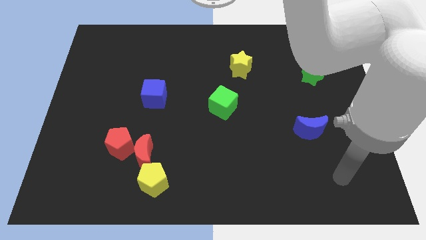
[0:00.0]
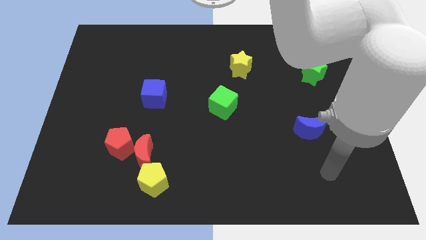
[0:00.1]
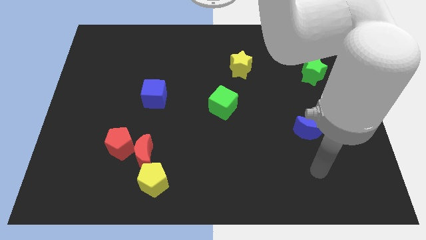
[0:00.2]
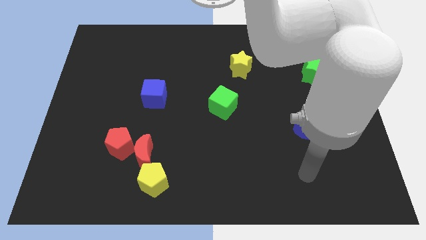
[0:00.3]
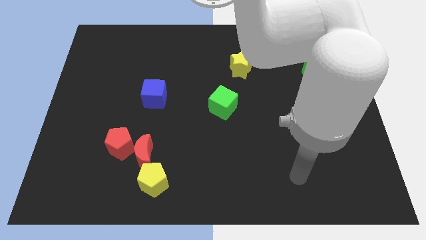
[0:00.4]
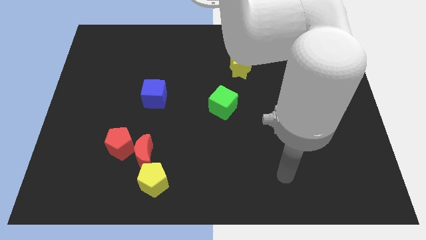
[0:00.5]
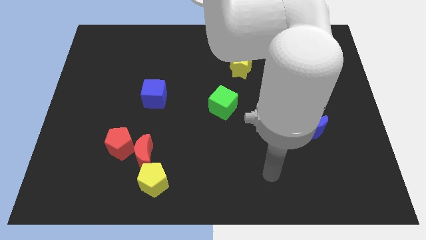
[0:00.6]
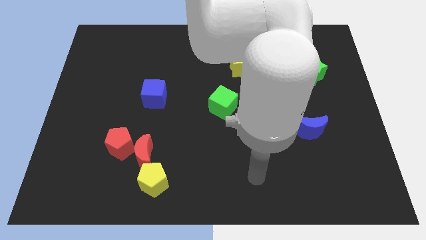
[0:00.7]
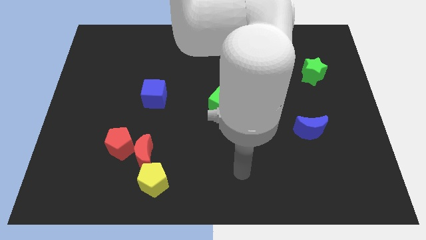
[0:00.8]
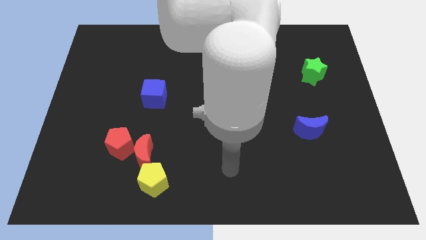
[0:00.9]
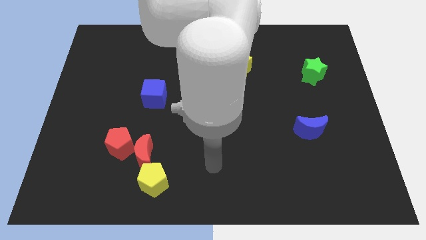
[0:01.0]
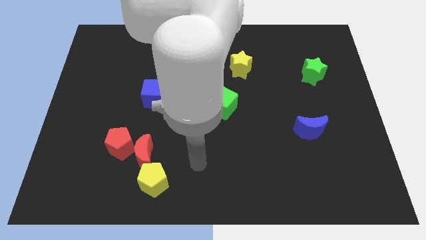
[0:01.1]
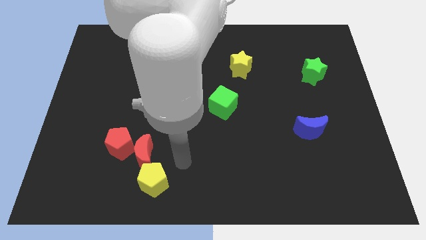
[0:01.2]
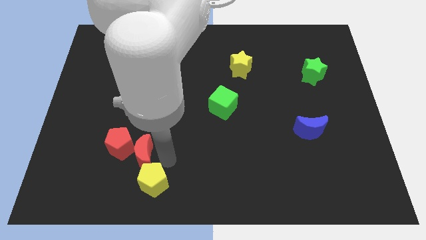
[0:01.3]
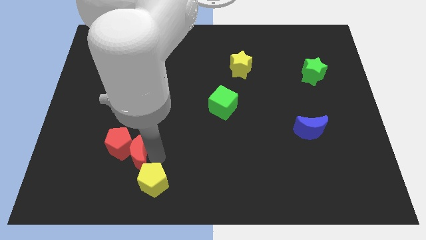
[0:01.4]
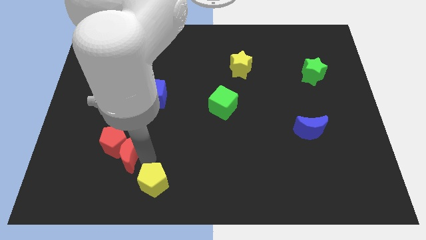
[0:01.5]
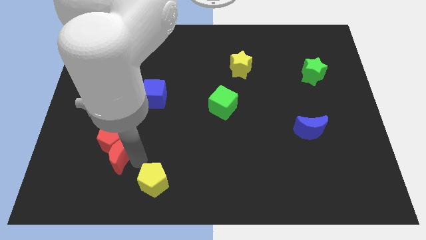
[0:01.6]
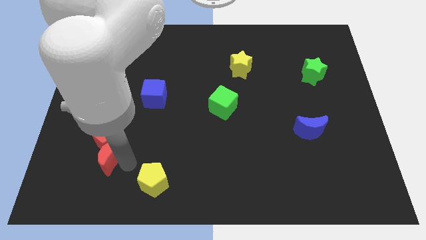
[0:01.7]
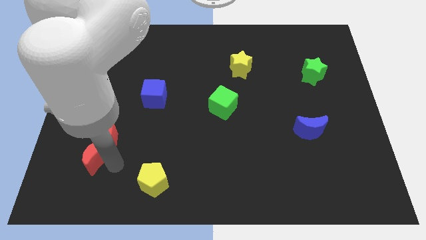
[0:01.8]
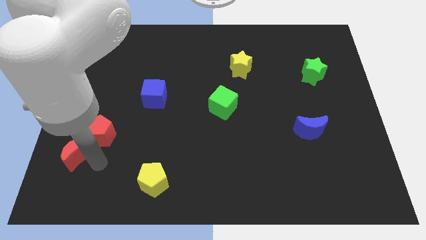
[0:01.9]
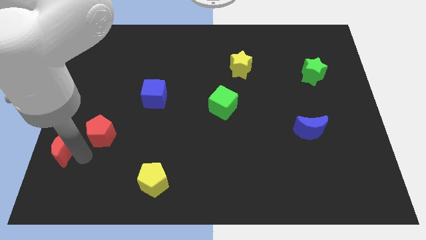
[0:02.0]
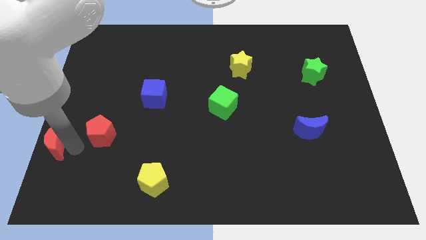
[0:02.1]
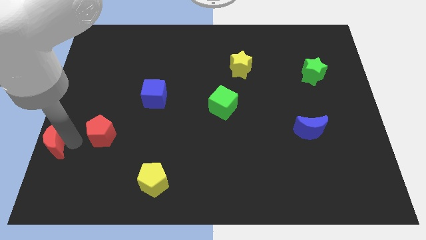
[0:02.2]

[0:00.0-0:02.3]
pull the red pentagon apart from the red moon

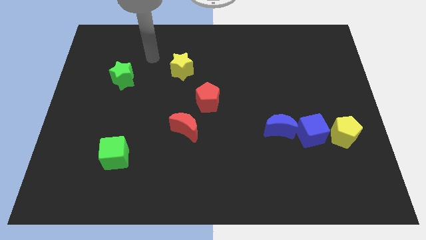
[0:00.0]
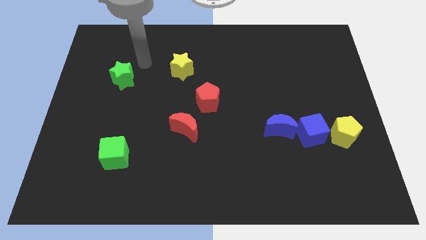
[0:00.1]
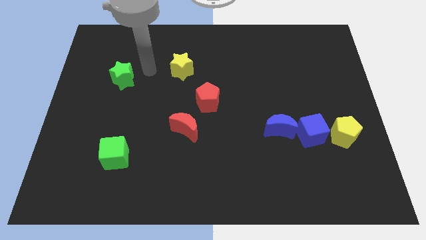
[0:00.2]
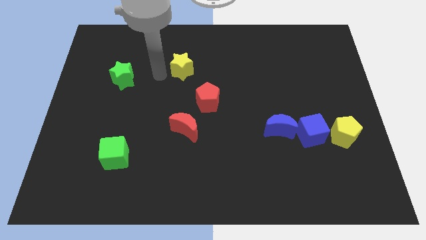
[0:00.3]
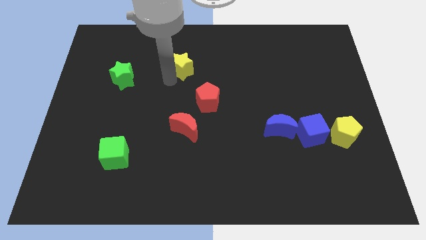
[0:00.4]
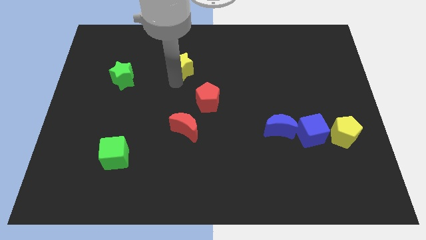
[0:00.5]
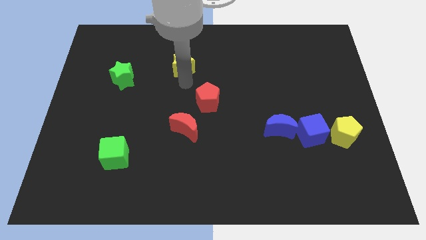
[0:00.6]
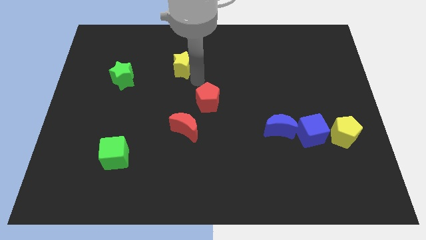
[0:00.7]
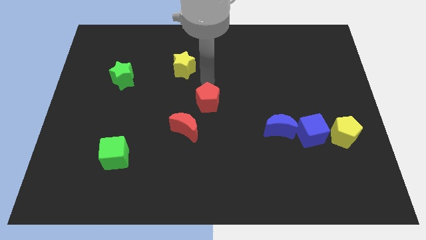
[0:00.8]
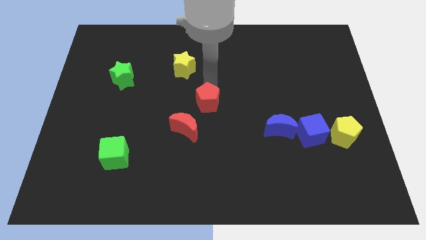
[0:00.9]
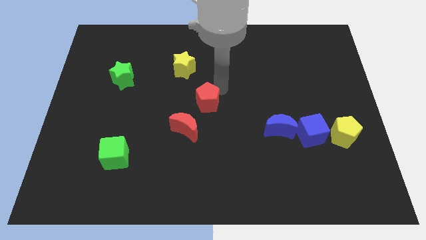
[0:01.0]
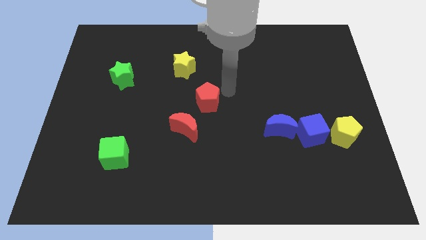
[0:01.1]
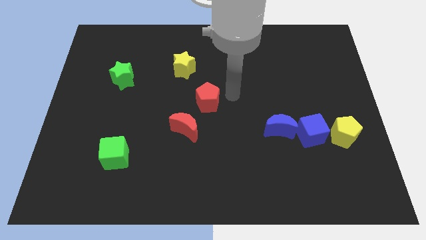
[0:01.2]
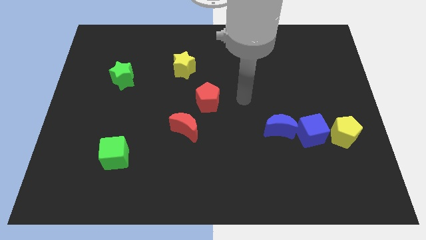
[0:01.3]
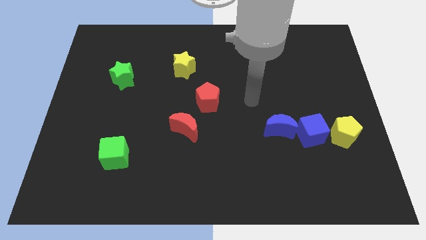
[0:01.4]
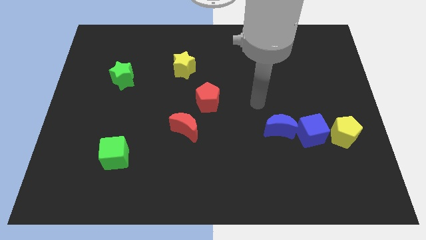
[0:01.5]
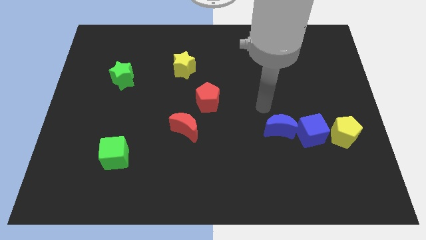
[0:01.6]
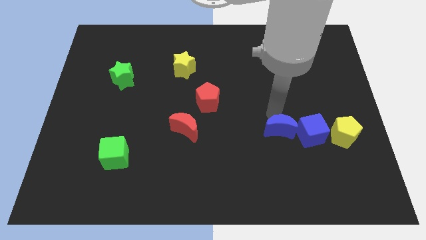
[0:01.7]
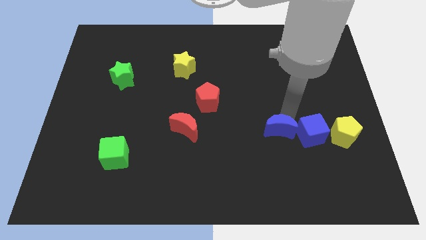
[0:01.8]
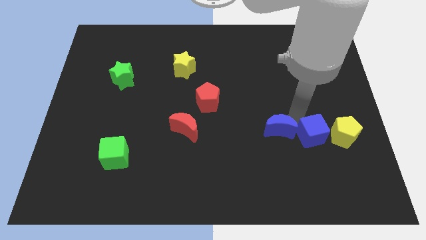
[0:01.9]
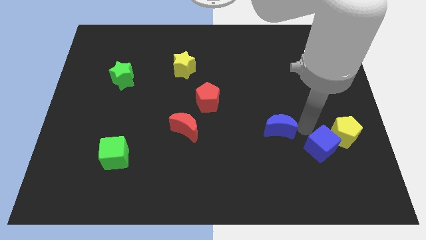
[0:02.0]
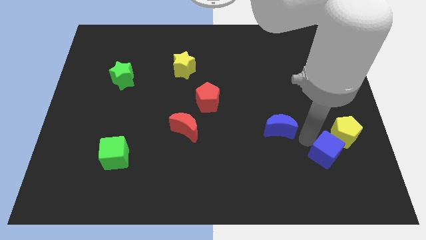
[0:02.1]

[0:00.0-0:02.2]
pull the blue moon apart from the blue cube

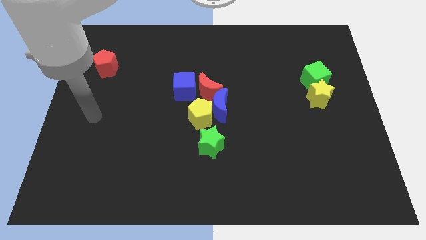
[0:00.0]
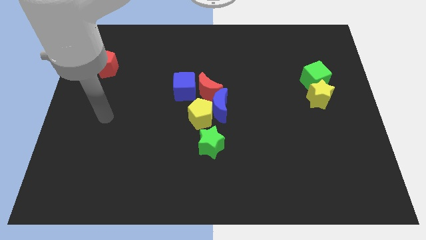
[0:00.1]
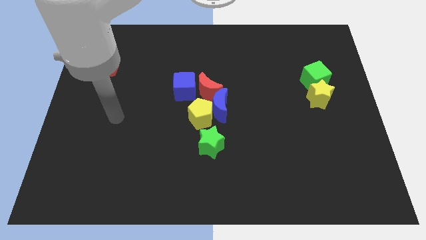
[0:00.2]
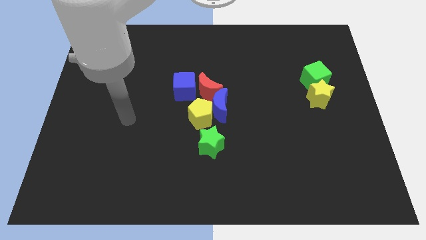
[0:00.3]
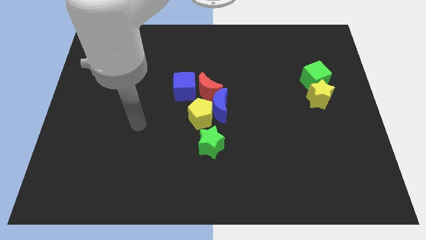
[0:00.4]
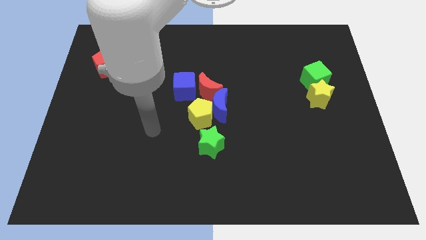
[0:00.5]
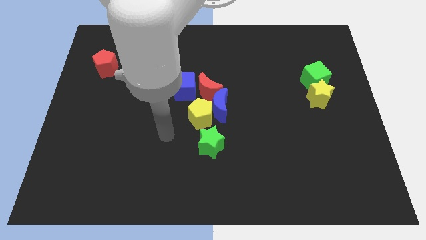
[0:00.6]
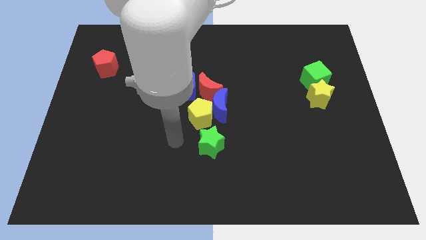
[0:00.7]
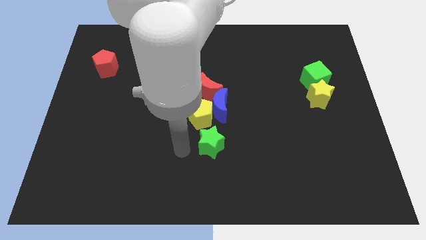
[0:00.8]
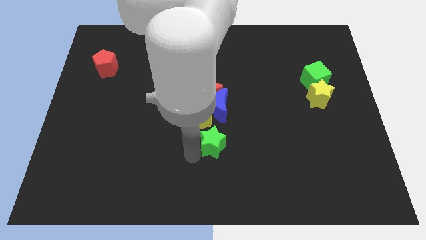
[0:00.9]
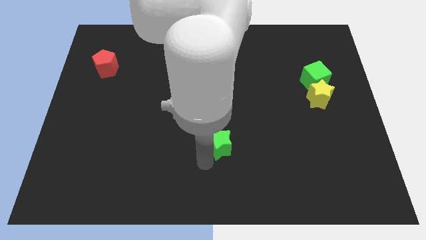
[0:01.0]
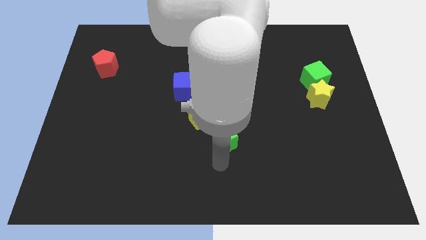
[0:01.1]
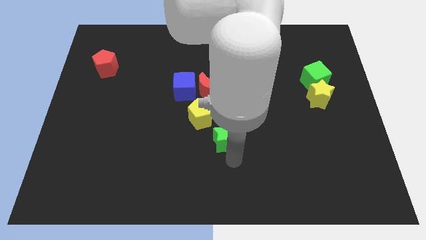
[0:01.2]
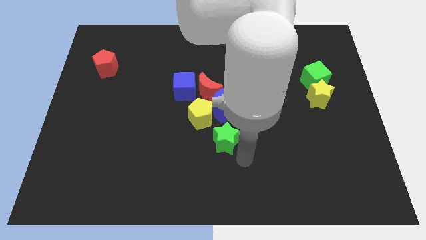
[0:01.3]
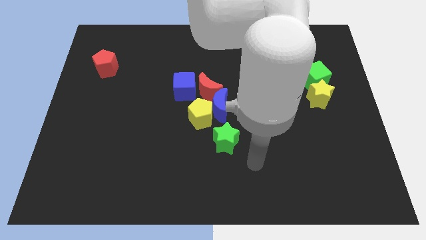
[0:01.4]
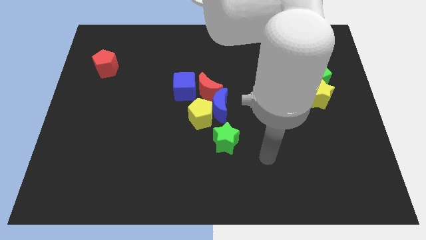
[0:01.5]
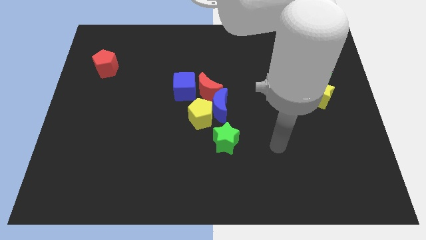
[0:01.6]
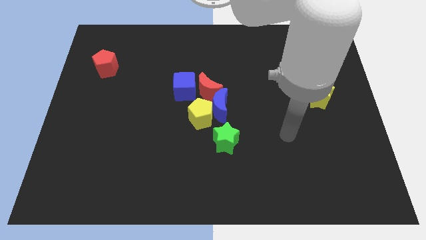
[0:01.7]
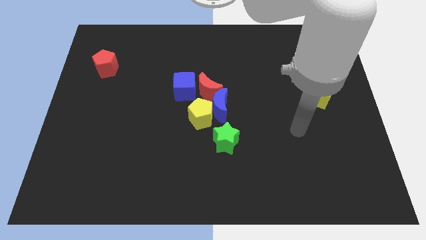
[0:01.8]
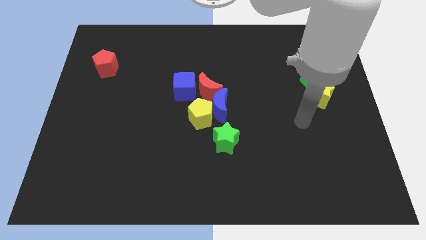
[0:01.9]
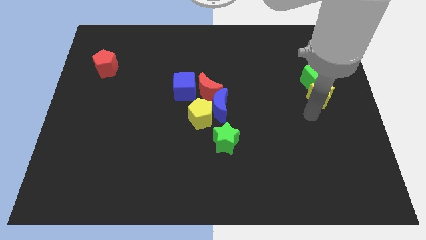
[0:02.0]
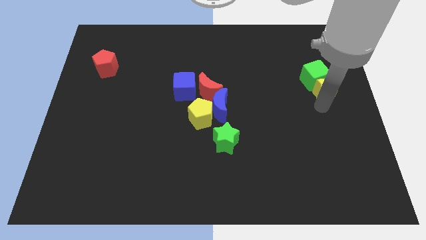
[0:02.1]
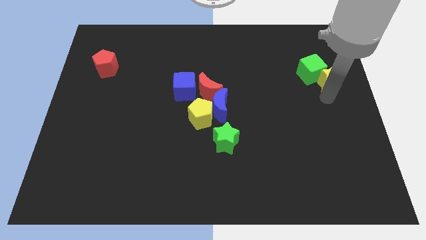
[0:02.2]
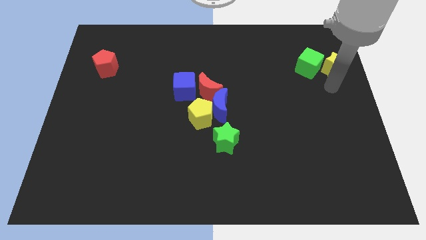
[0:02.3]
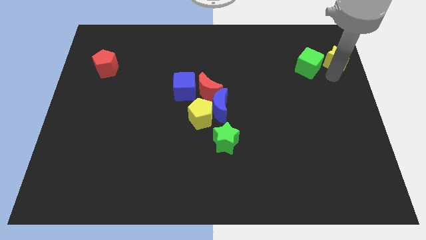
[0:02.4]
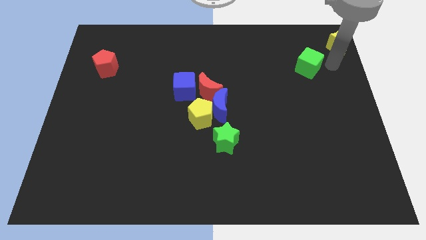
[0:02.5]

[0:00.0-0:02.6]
move the green cube away from the yellow star

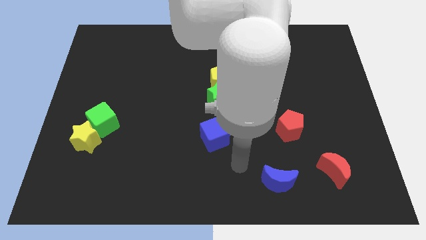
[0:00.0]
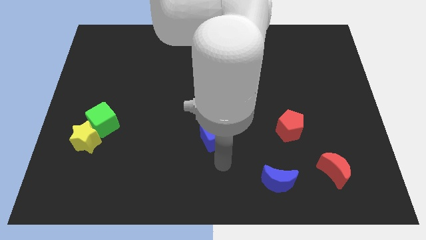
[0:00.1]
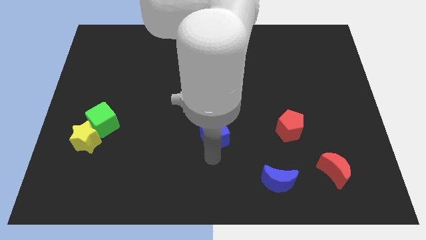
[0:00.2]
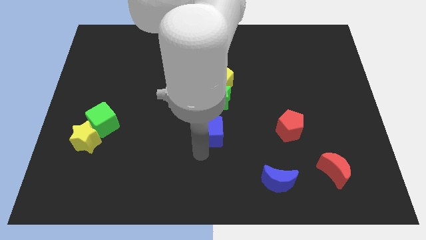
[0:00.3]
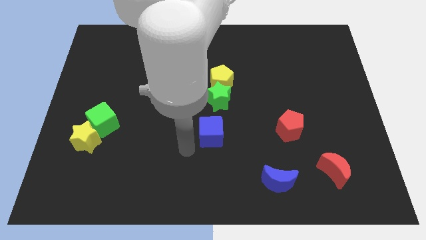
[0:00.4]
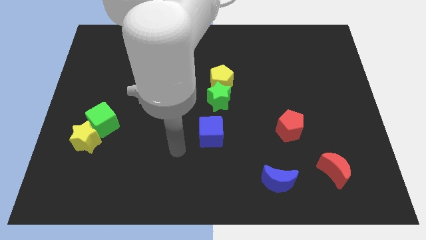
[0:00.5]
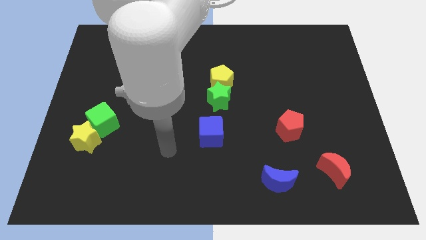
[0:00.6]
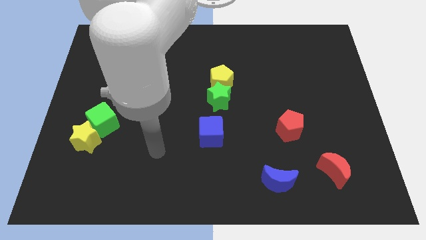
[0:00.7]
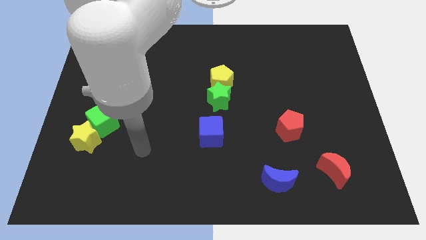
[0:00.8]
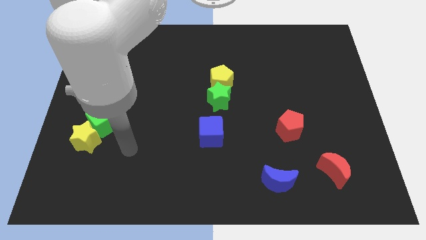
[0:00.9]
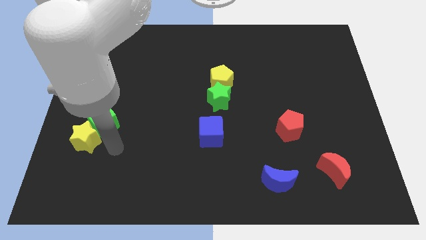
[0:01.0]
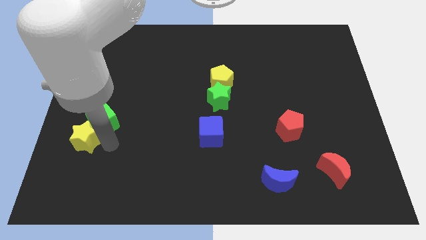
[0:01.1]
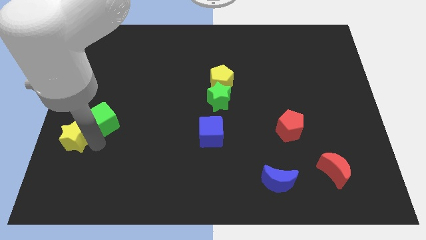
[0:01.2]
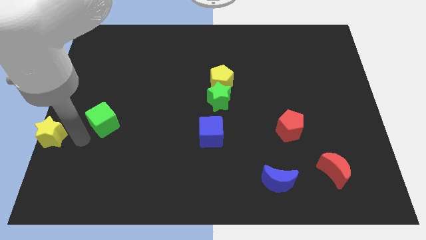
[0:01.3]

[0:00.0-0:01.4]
separate the green cube from the yellow star

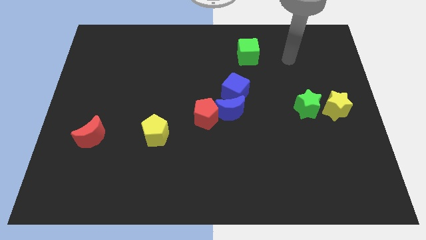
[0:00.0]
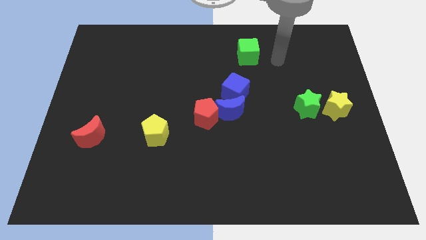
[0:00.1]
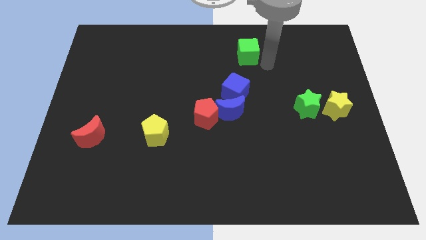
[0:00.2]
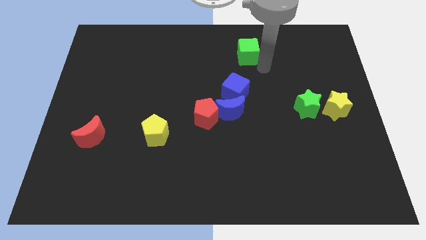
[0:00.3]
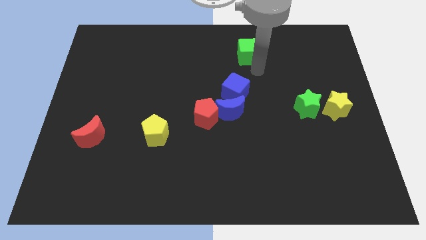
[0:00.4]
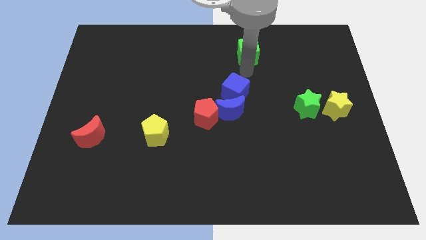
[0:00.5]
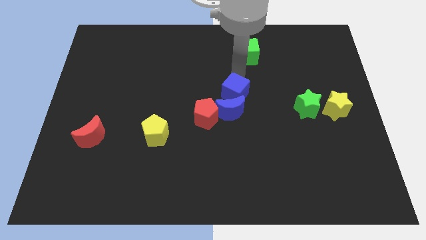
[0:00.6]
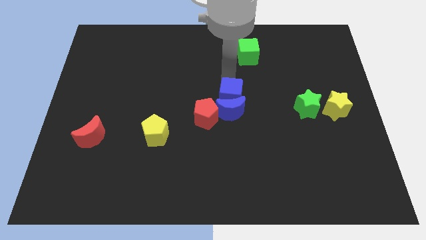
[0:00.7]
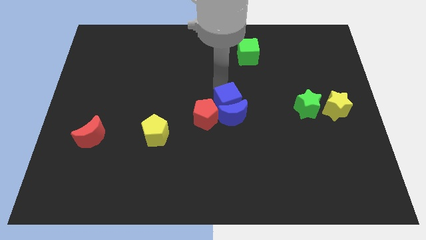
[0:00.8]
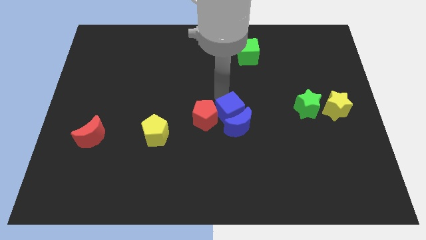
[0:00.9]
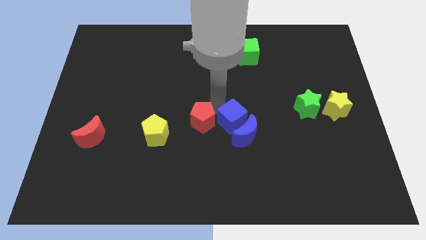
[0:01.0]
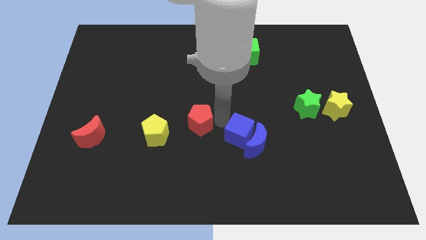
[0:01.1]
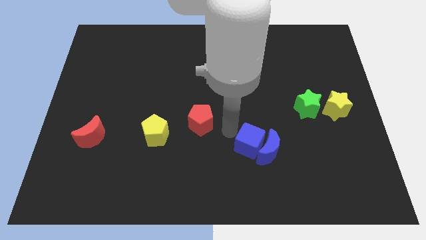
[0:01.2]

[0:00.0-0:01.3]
separate the blue moon from the red pentagon and blue cube
